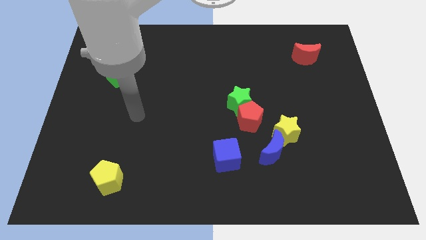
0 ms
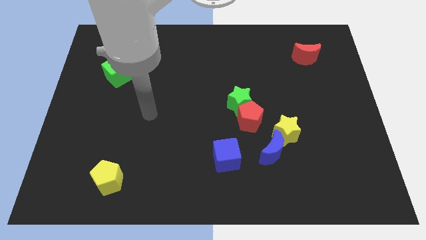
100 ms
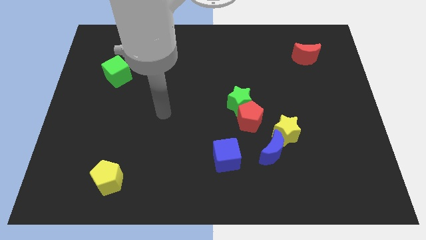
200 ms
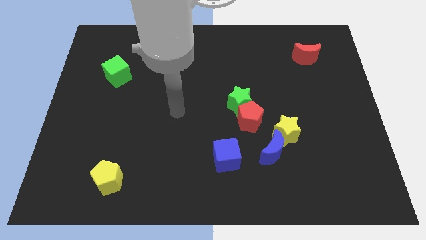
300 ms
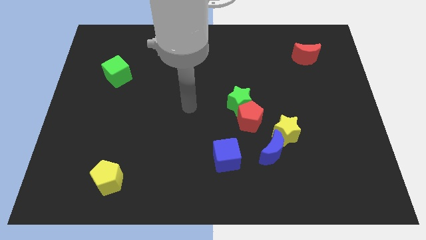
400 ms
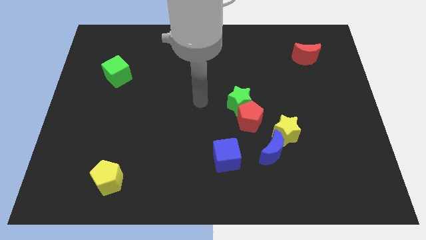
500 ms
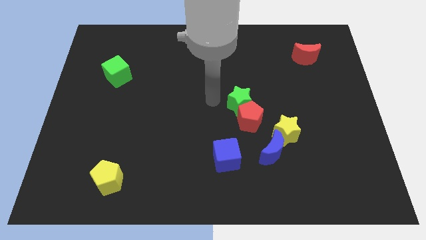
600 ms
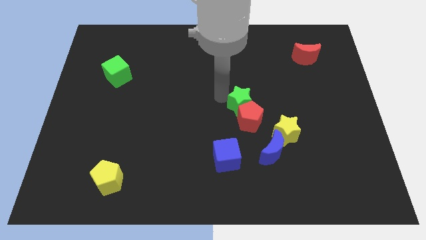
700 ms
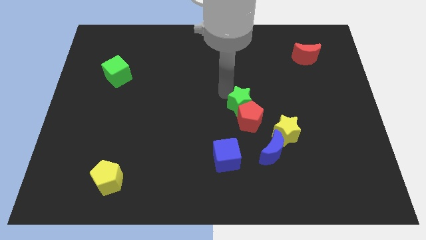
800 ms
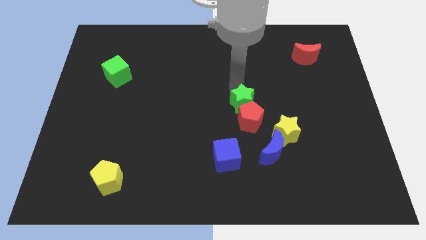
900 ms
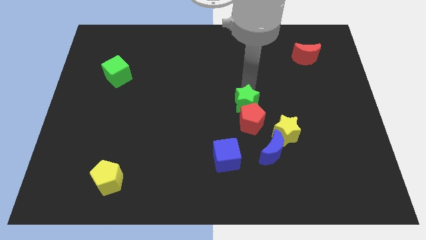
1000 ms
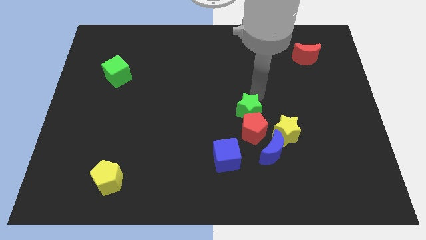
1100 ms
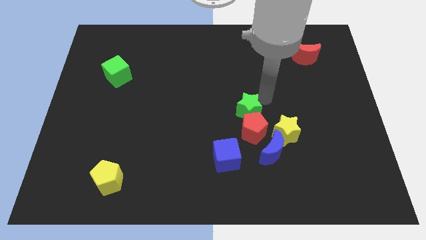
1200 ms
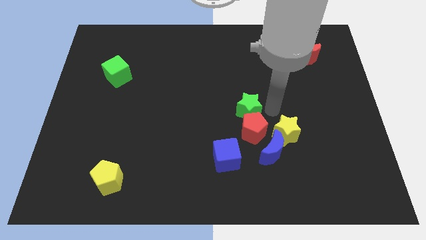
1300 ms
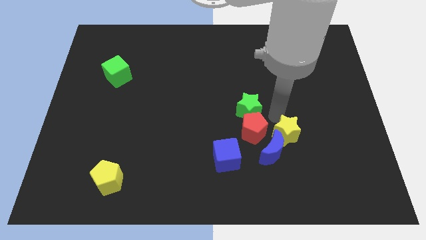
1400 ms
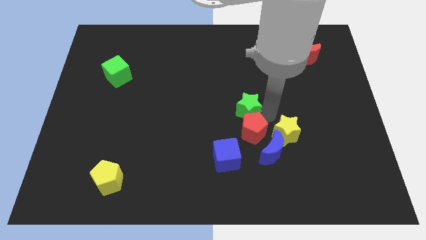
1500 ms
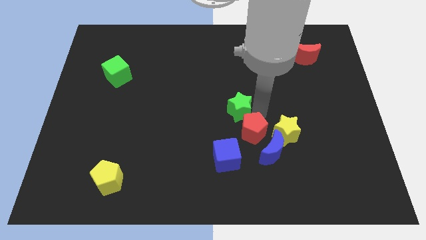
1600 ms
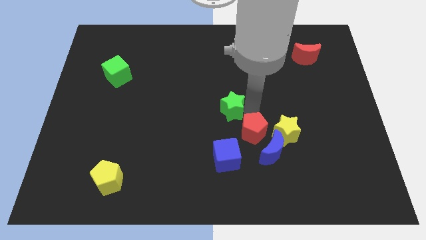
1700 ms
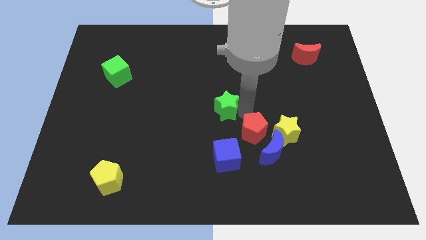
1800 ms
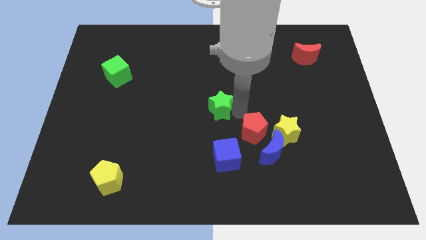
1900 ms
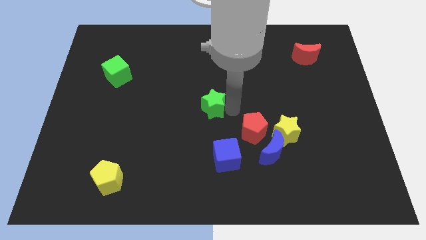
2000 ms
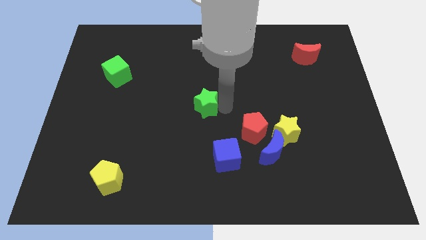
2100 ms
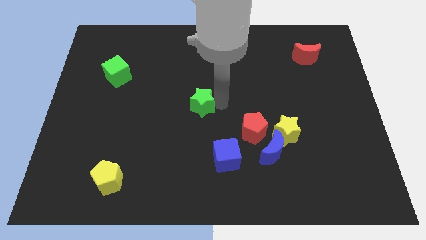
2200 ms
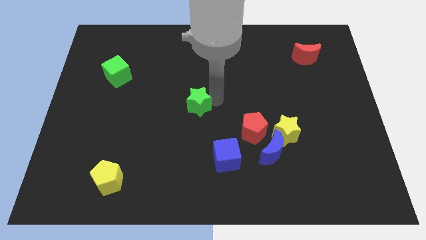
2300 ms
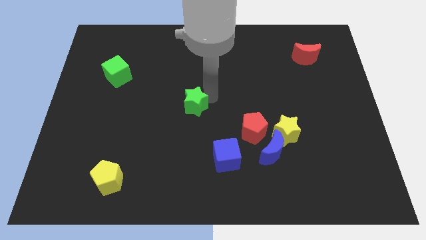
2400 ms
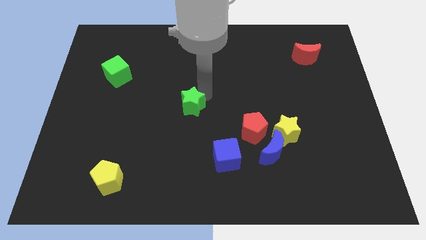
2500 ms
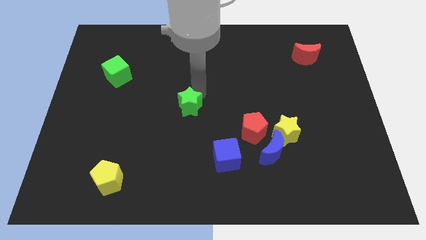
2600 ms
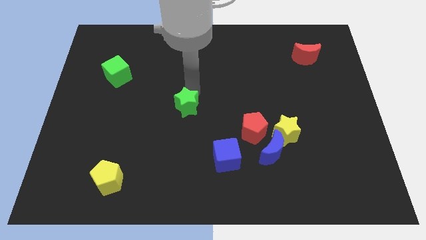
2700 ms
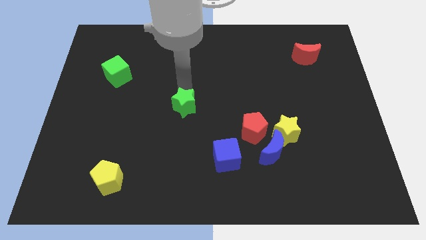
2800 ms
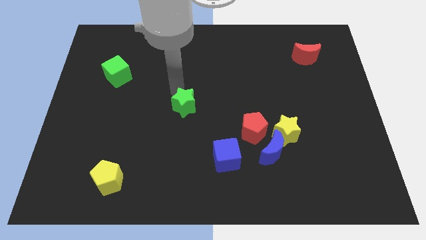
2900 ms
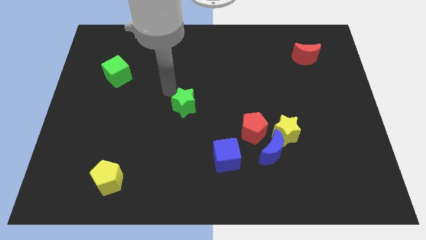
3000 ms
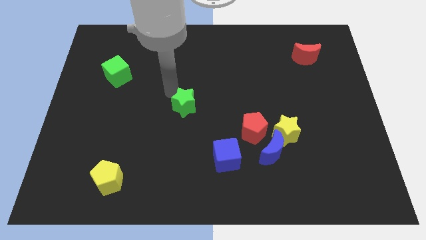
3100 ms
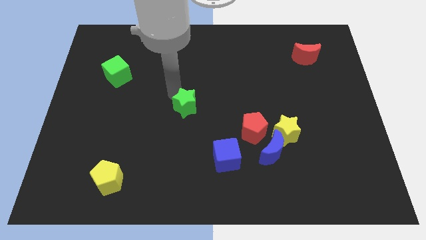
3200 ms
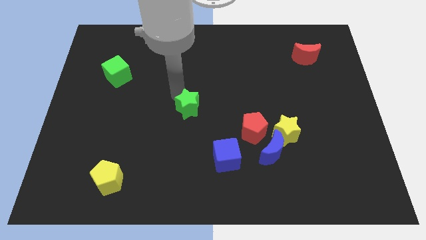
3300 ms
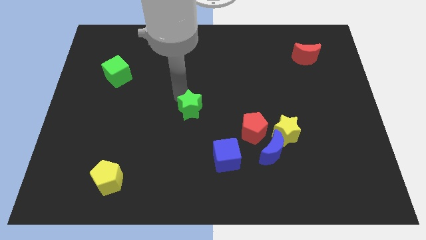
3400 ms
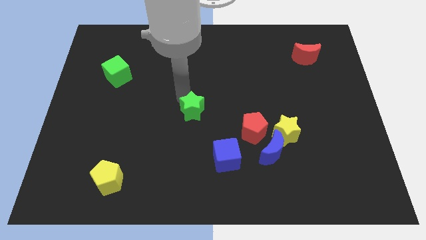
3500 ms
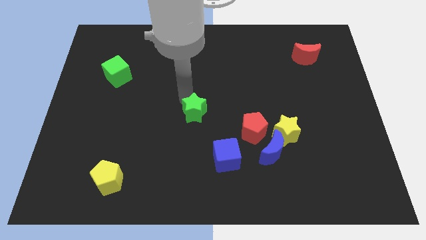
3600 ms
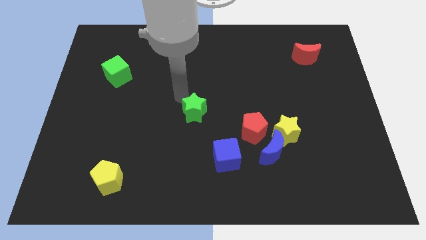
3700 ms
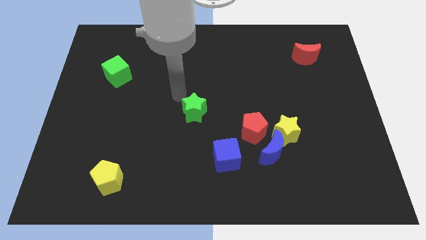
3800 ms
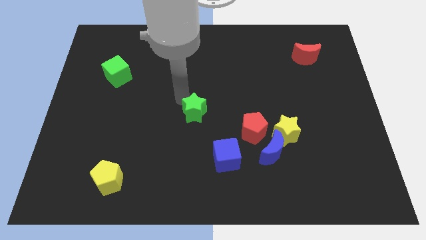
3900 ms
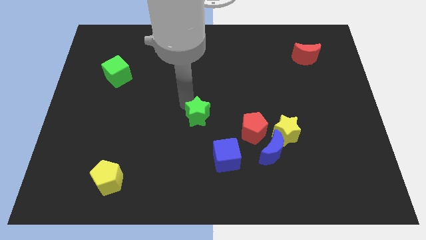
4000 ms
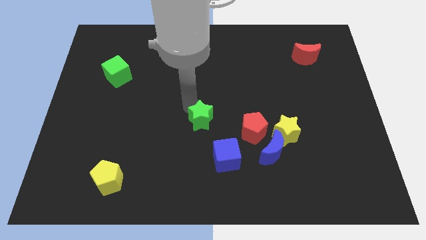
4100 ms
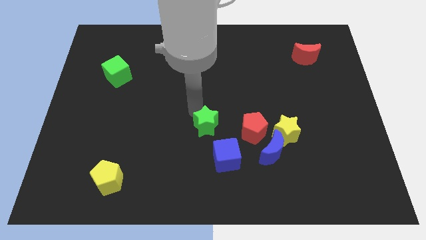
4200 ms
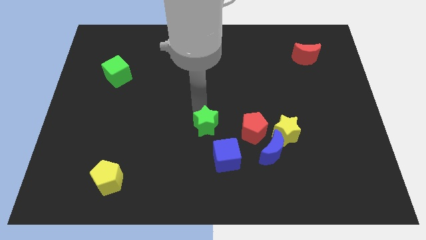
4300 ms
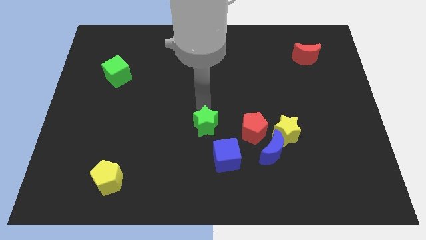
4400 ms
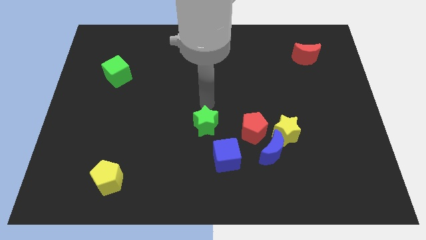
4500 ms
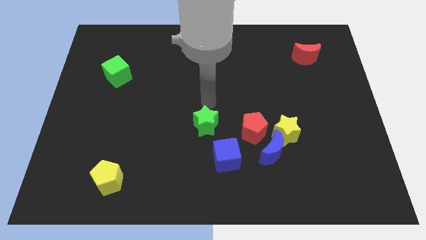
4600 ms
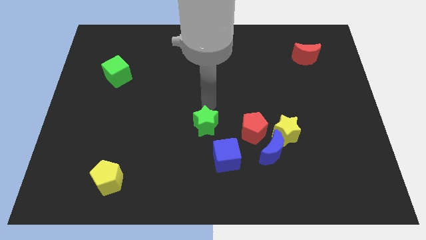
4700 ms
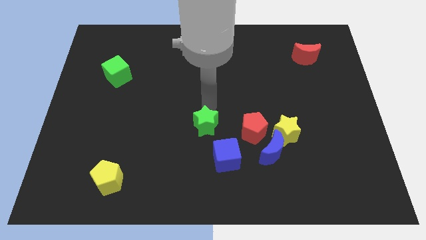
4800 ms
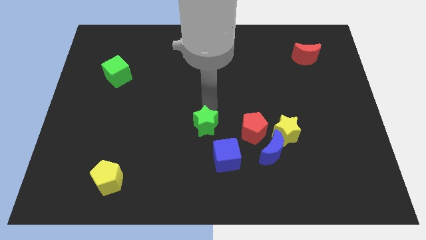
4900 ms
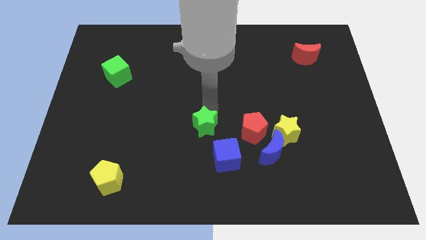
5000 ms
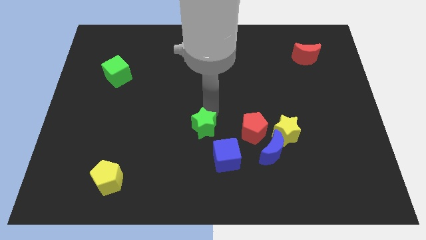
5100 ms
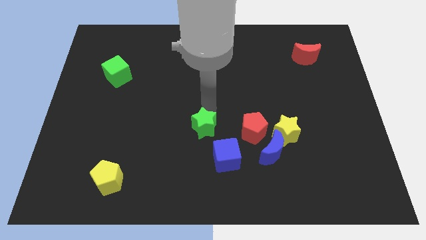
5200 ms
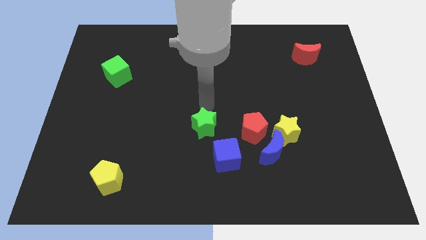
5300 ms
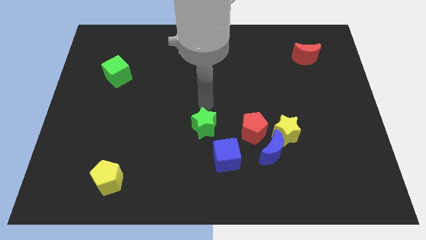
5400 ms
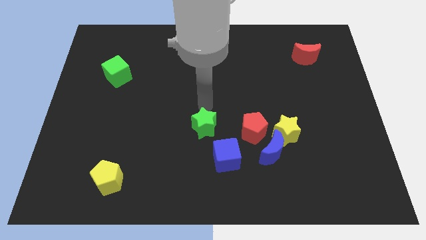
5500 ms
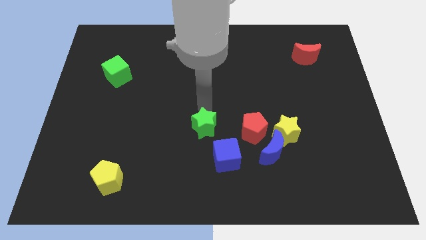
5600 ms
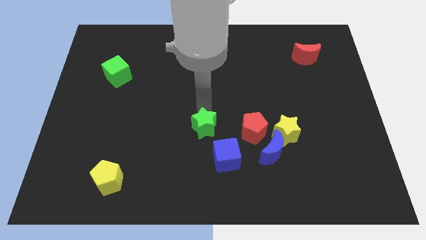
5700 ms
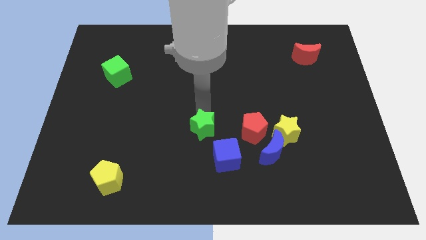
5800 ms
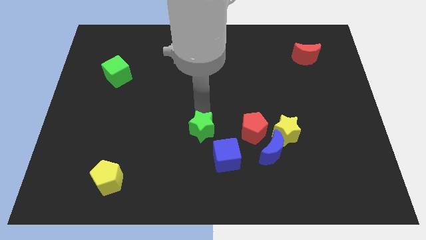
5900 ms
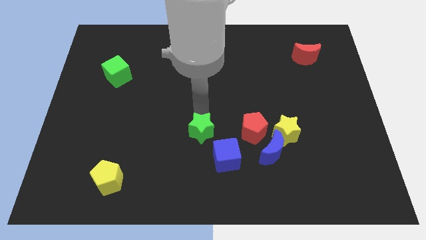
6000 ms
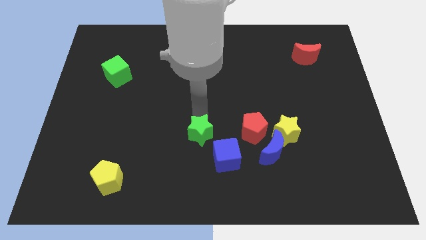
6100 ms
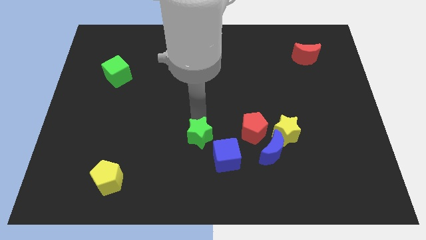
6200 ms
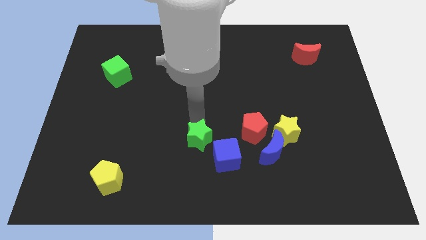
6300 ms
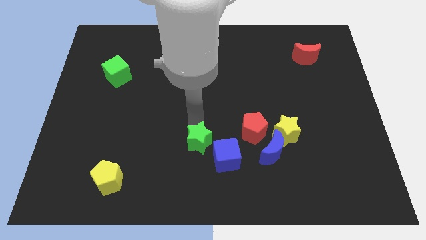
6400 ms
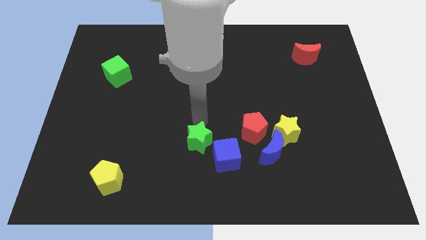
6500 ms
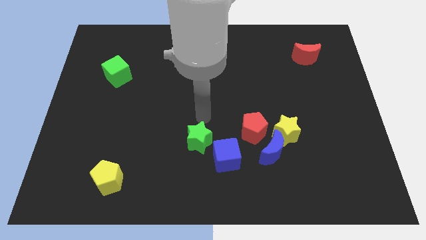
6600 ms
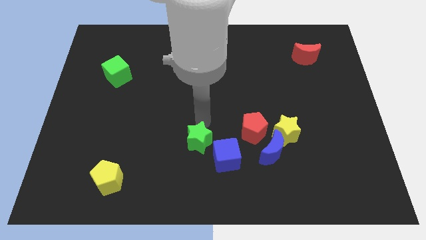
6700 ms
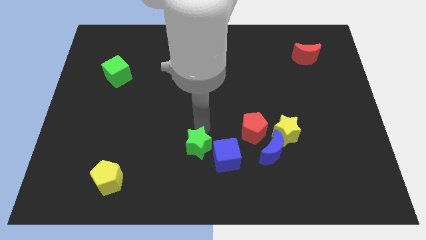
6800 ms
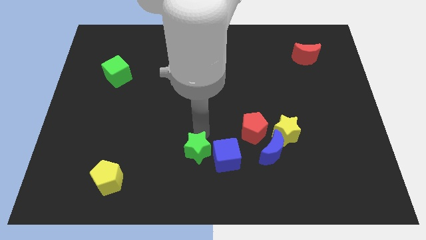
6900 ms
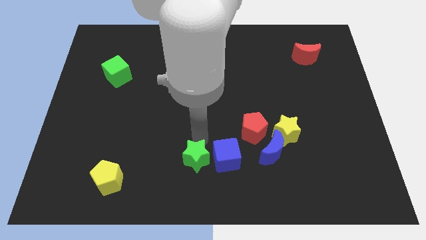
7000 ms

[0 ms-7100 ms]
push the green star to the bottom left side of the blue cube
